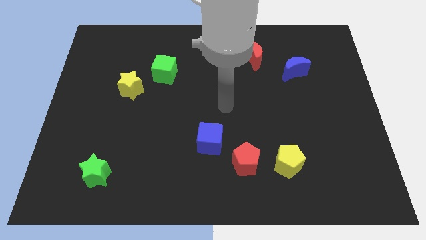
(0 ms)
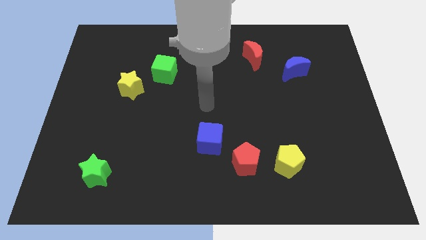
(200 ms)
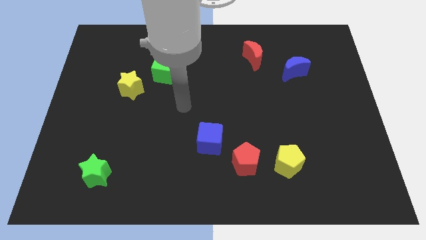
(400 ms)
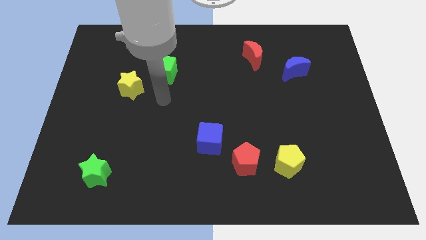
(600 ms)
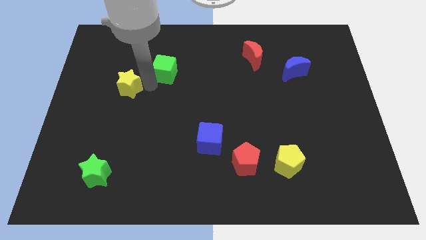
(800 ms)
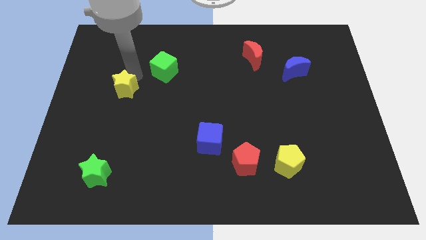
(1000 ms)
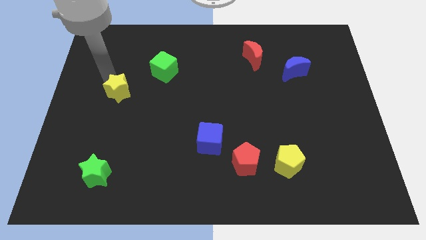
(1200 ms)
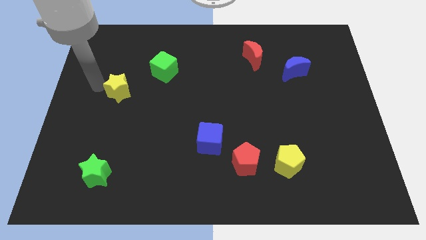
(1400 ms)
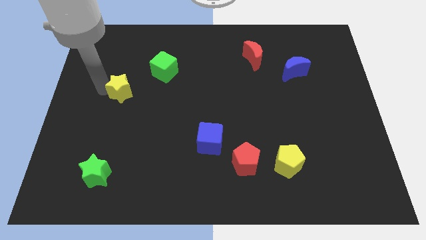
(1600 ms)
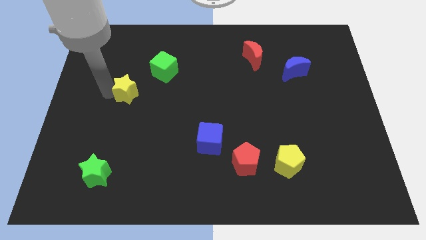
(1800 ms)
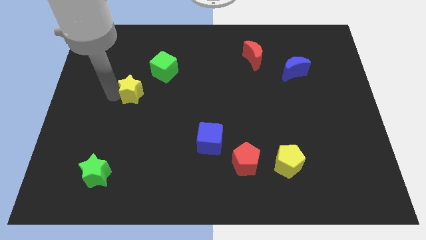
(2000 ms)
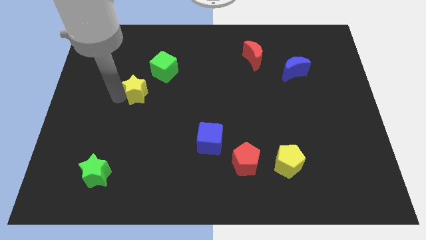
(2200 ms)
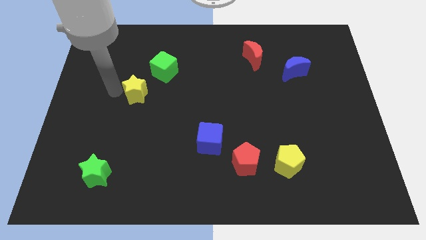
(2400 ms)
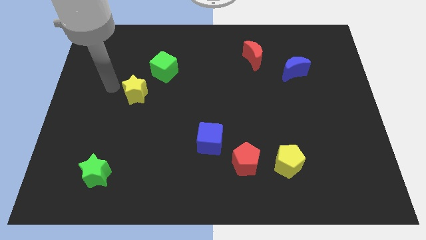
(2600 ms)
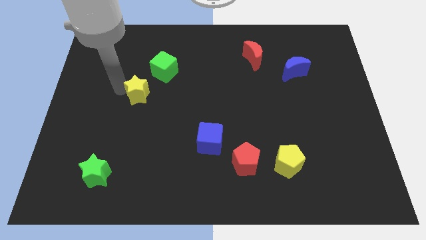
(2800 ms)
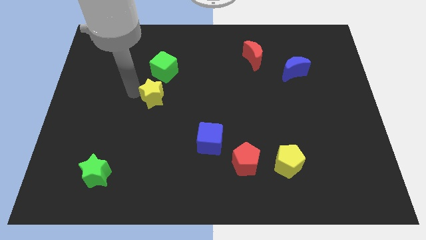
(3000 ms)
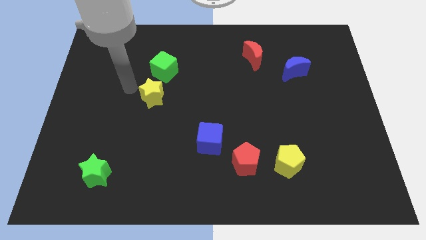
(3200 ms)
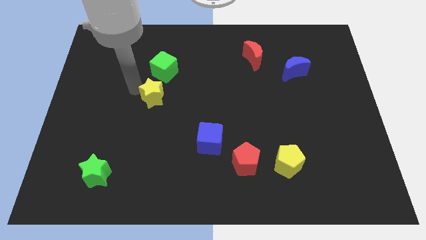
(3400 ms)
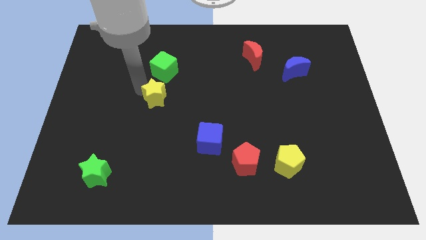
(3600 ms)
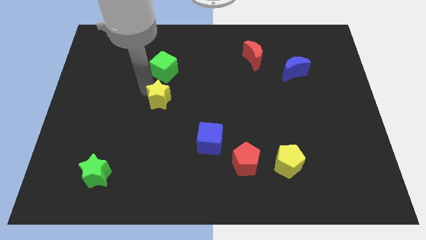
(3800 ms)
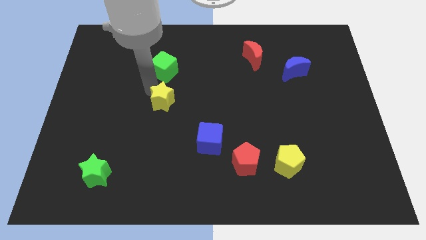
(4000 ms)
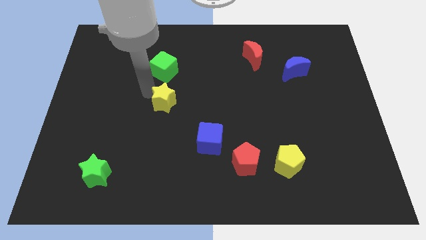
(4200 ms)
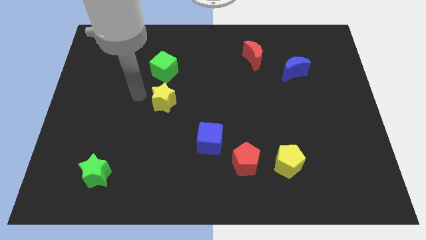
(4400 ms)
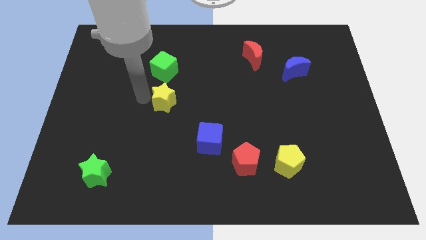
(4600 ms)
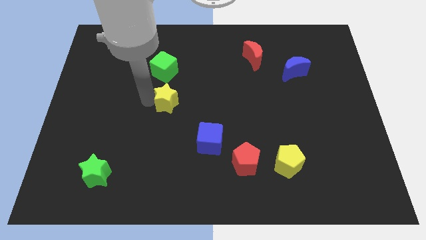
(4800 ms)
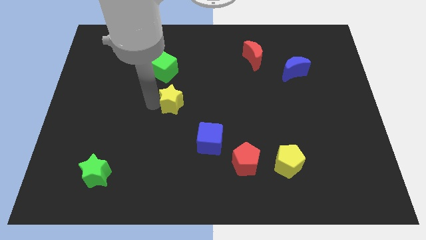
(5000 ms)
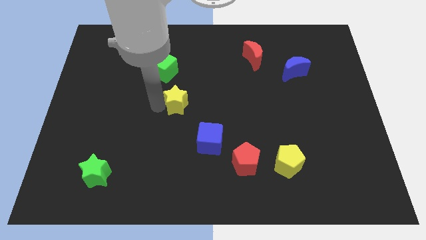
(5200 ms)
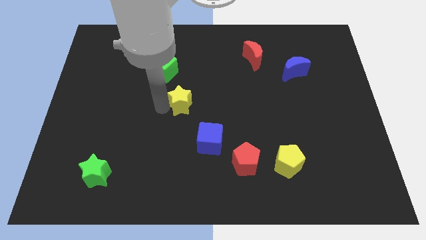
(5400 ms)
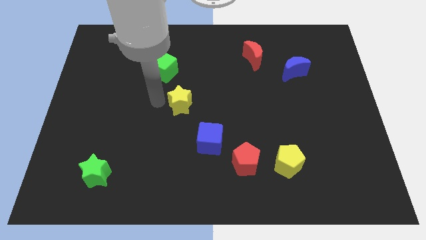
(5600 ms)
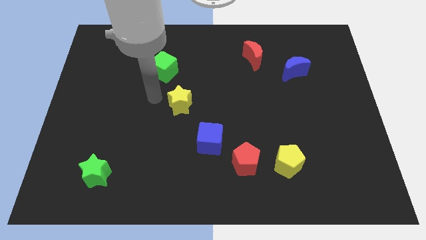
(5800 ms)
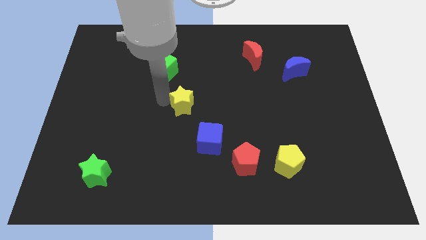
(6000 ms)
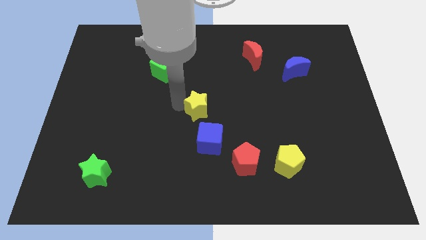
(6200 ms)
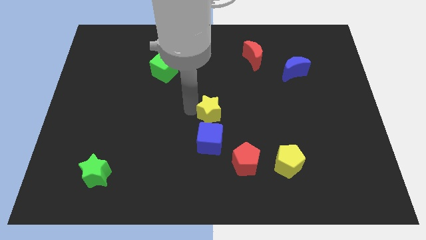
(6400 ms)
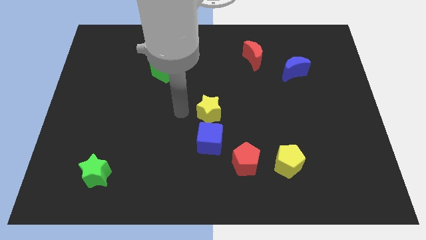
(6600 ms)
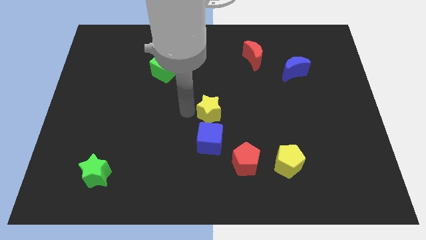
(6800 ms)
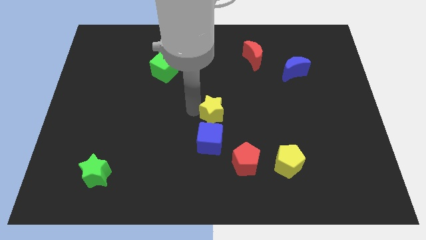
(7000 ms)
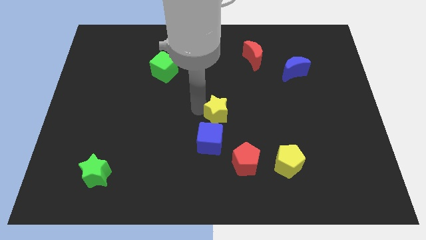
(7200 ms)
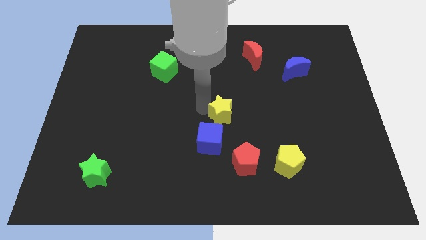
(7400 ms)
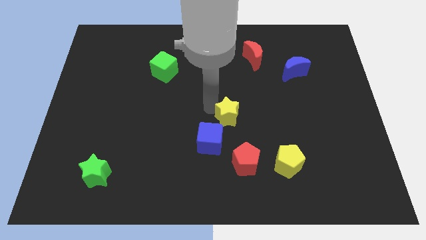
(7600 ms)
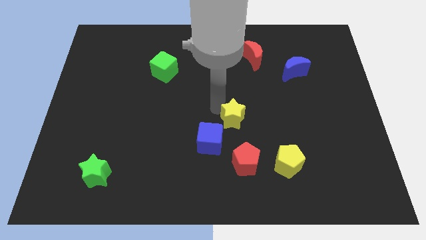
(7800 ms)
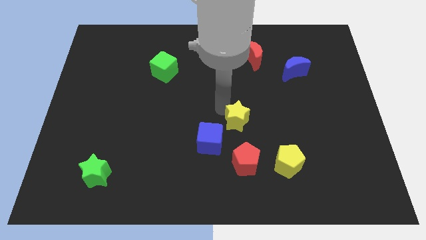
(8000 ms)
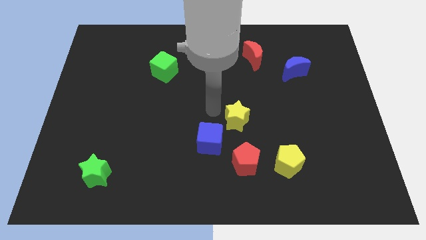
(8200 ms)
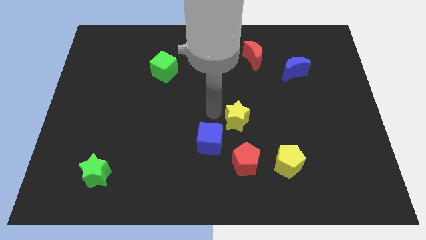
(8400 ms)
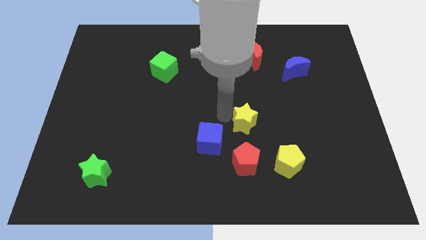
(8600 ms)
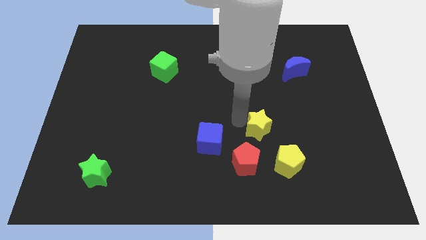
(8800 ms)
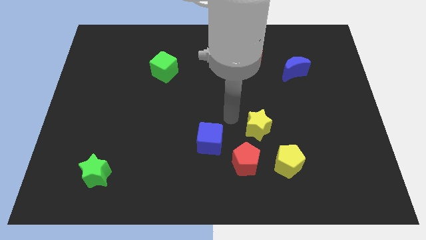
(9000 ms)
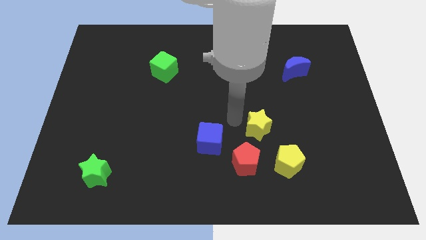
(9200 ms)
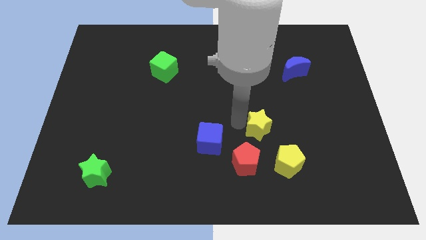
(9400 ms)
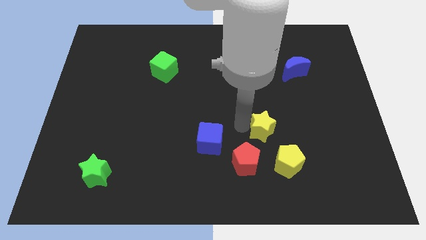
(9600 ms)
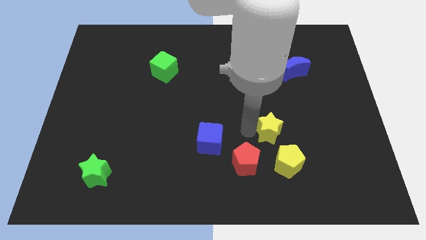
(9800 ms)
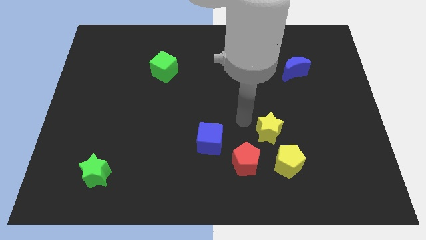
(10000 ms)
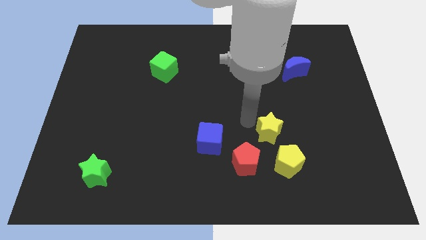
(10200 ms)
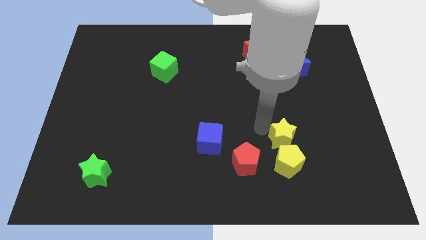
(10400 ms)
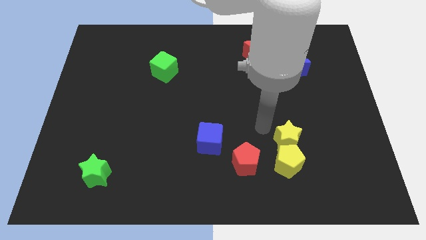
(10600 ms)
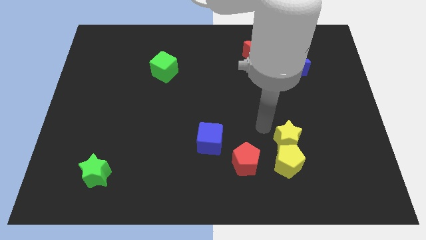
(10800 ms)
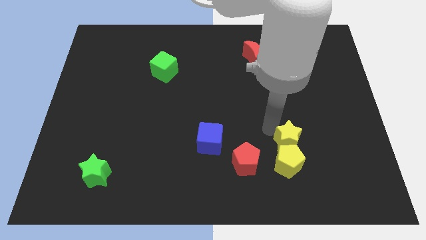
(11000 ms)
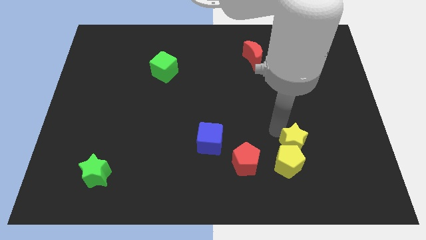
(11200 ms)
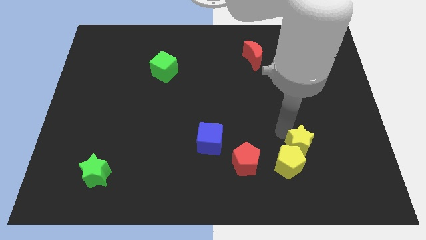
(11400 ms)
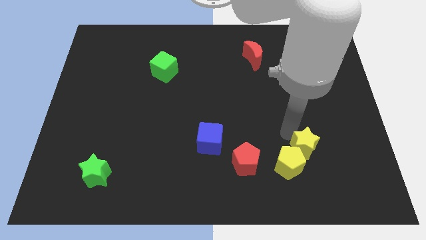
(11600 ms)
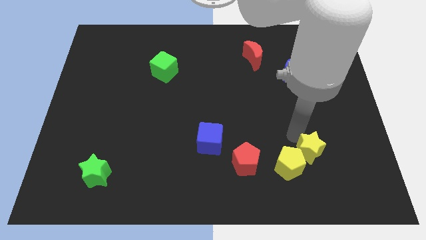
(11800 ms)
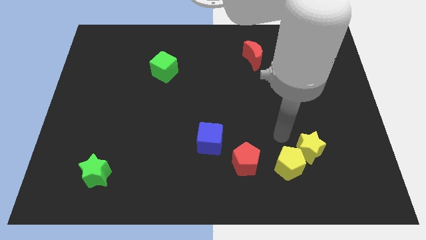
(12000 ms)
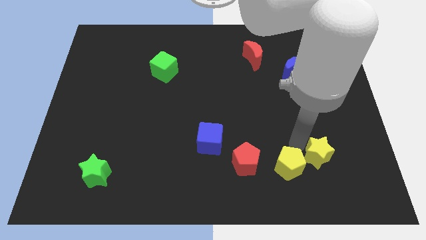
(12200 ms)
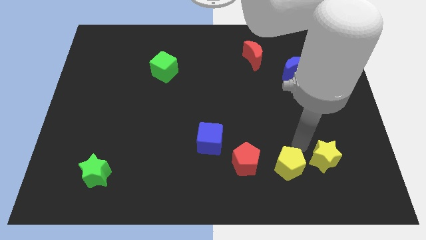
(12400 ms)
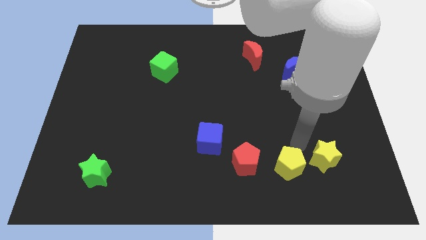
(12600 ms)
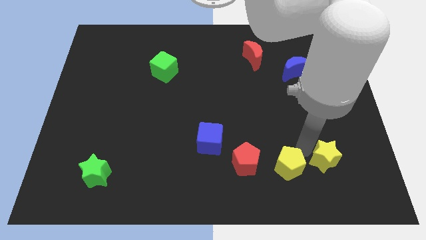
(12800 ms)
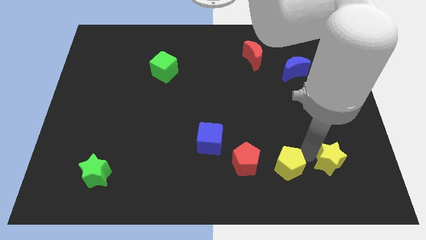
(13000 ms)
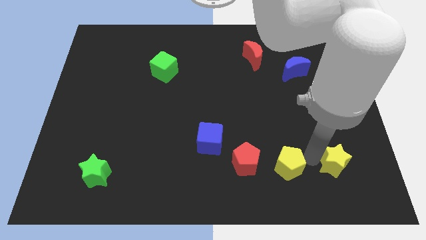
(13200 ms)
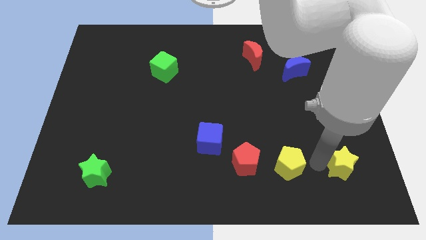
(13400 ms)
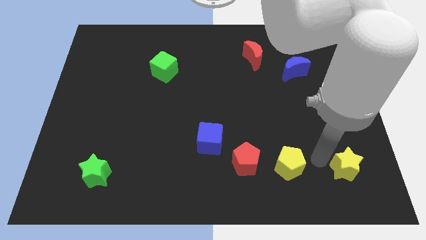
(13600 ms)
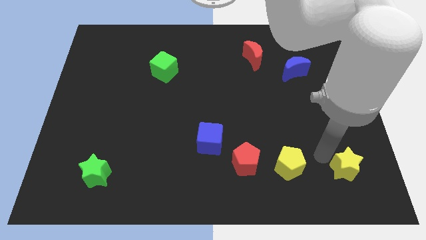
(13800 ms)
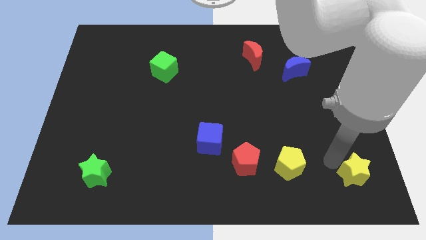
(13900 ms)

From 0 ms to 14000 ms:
put the yellow star to the bottom right

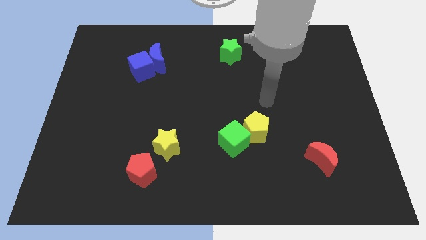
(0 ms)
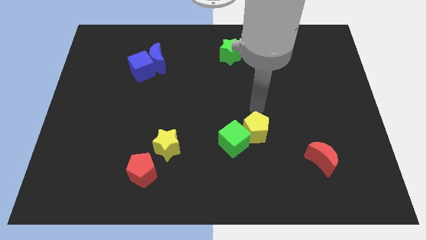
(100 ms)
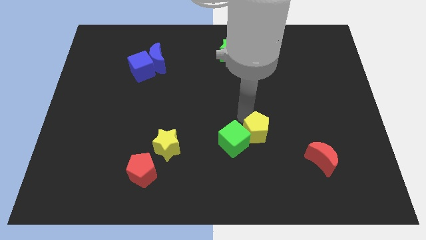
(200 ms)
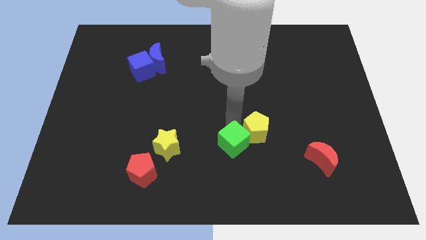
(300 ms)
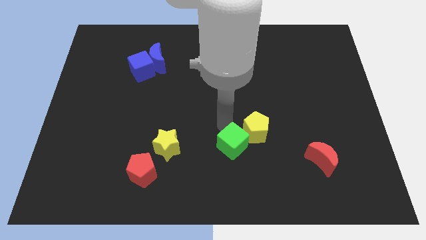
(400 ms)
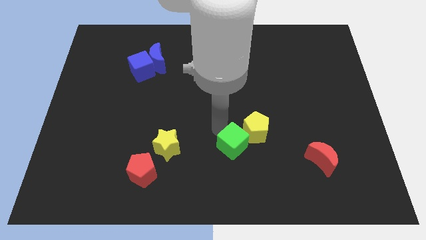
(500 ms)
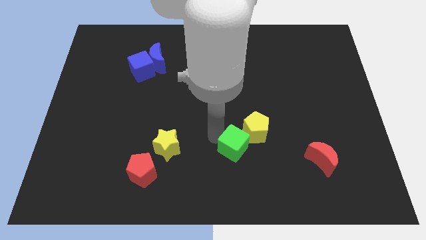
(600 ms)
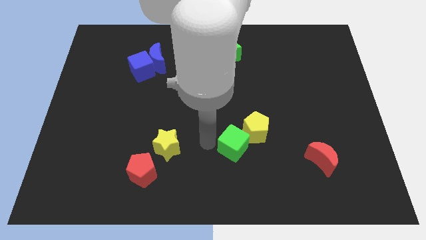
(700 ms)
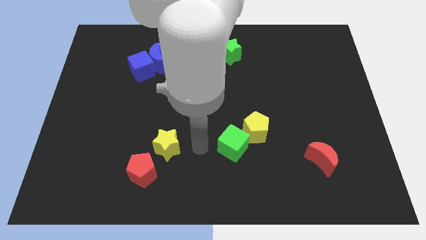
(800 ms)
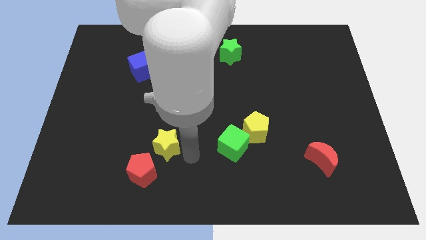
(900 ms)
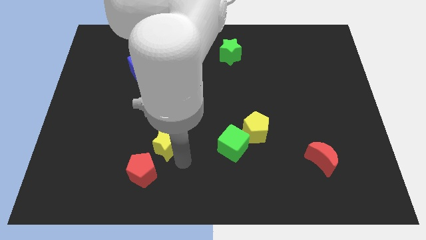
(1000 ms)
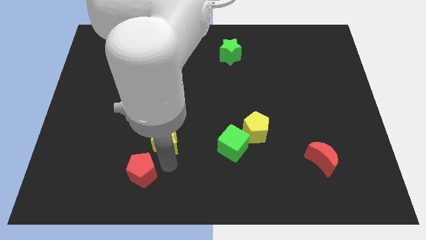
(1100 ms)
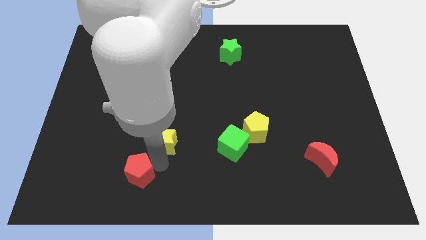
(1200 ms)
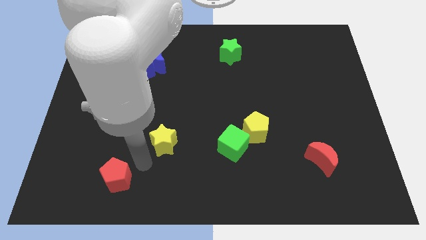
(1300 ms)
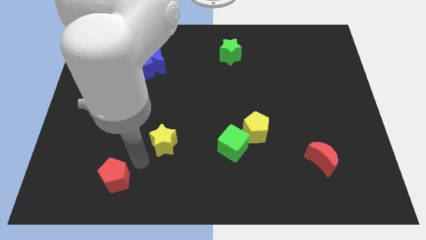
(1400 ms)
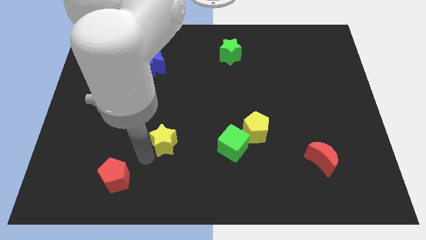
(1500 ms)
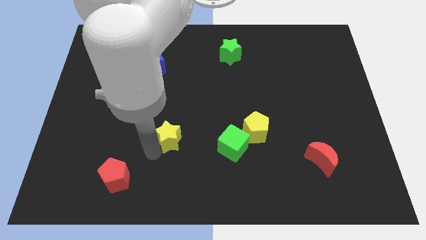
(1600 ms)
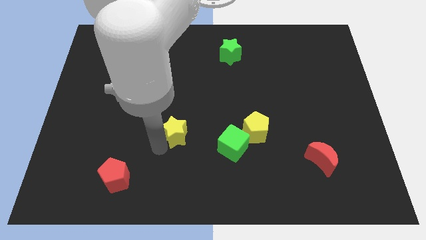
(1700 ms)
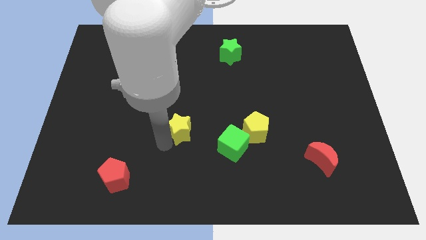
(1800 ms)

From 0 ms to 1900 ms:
move the yellow star to the middle of the board
